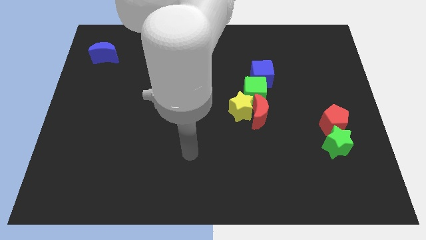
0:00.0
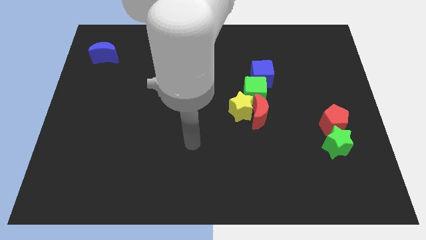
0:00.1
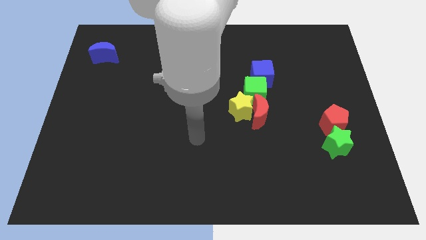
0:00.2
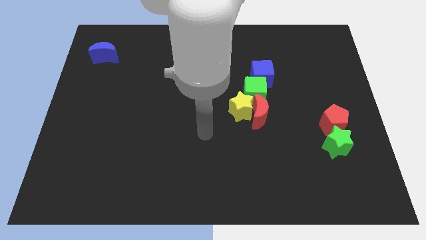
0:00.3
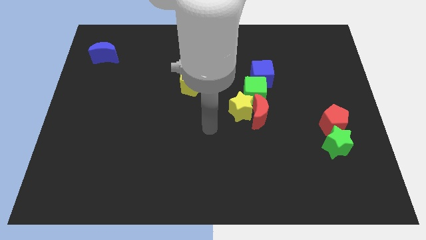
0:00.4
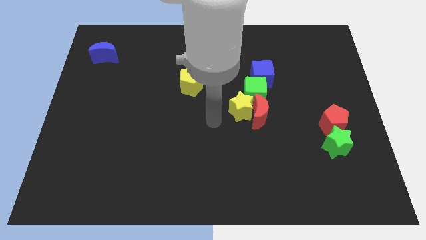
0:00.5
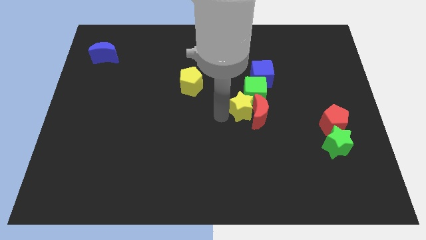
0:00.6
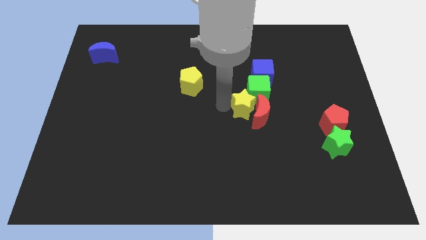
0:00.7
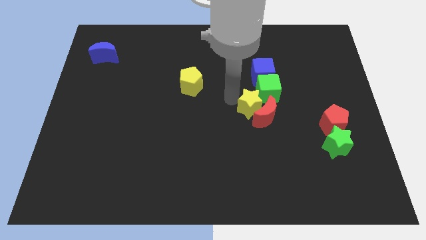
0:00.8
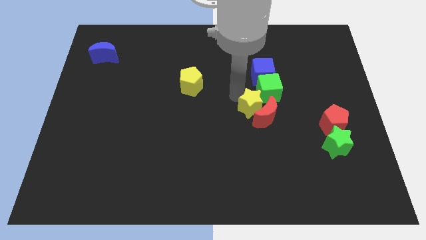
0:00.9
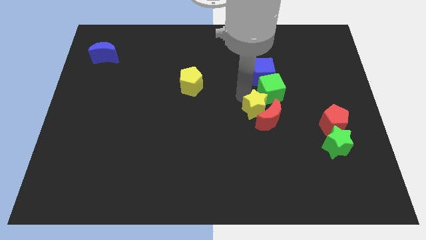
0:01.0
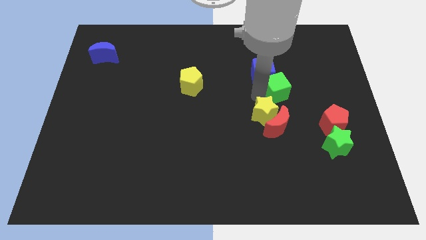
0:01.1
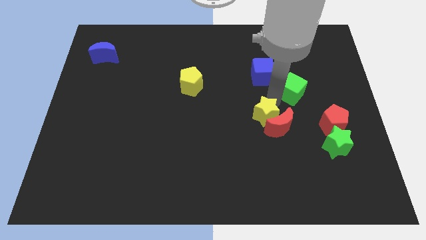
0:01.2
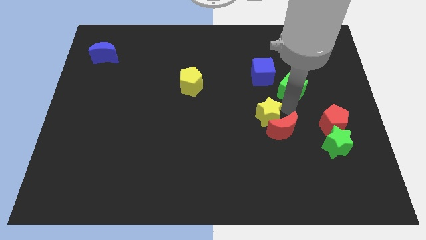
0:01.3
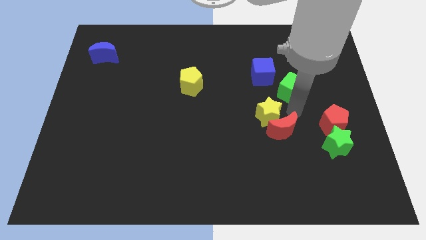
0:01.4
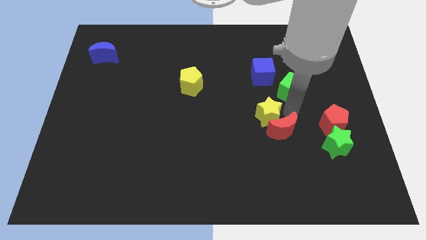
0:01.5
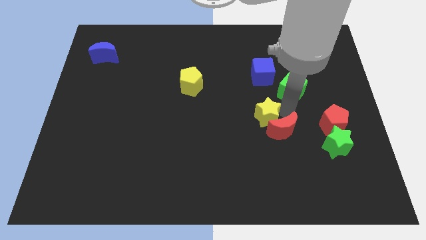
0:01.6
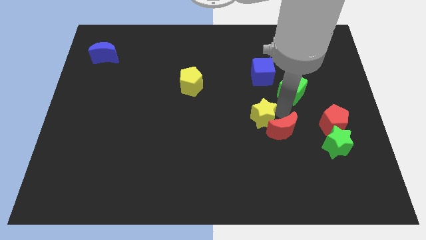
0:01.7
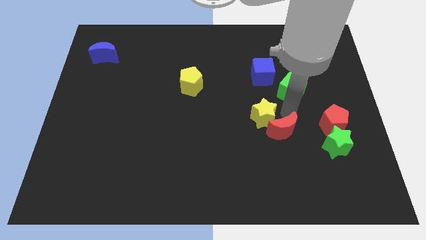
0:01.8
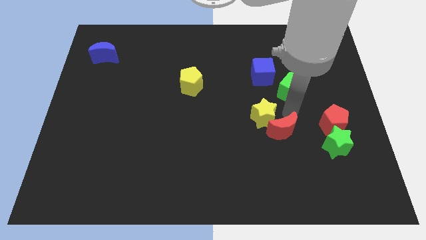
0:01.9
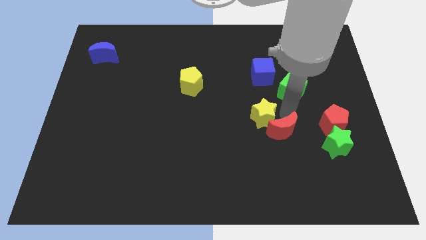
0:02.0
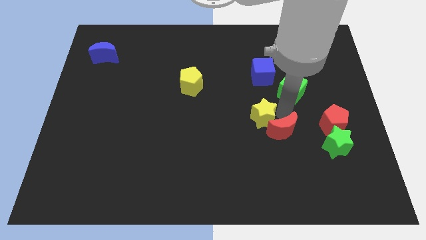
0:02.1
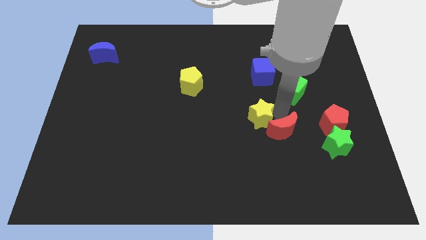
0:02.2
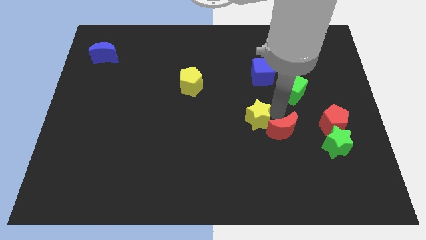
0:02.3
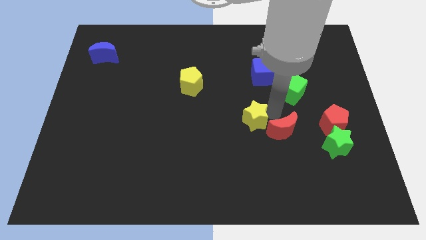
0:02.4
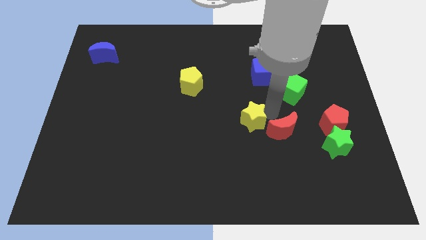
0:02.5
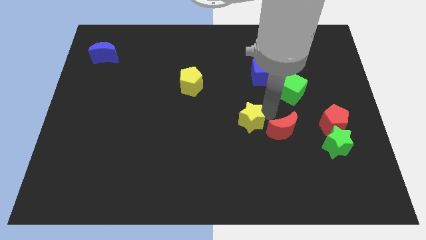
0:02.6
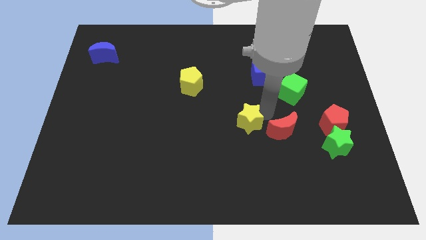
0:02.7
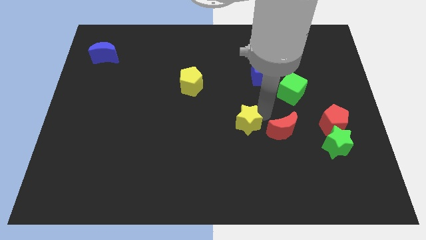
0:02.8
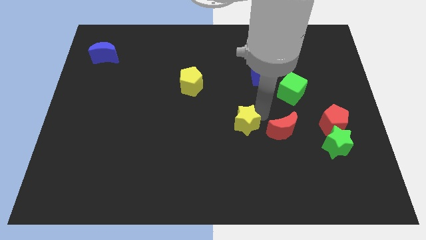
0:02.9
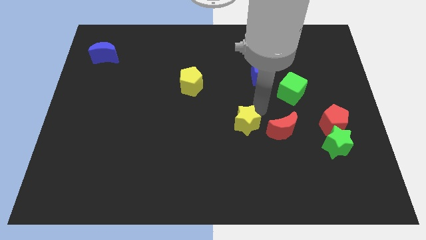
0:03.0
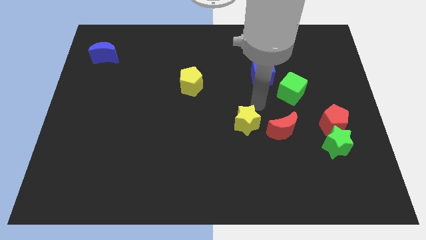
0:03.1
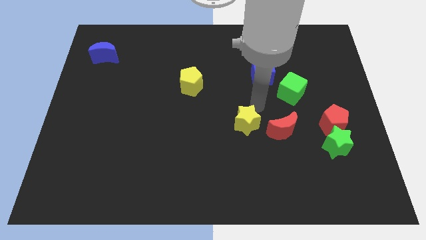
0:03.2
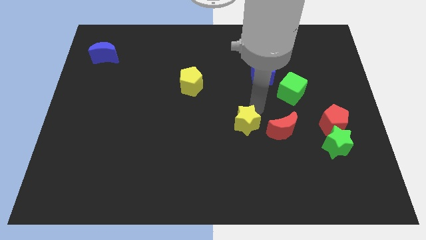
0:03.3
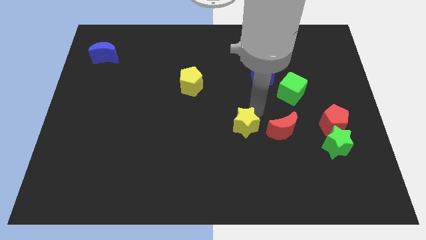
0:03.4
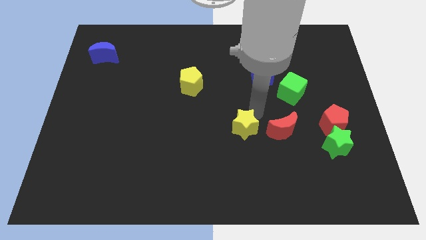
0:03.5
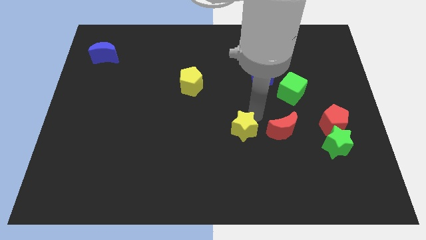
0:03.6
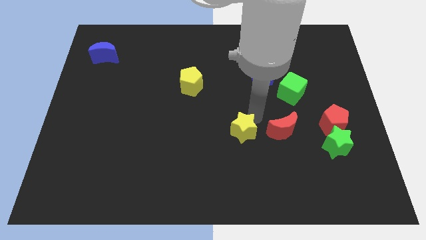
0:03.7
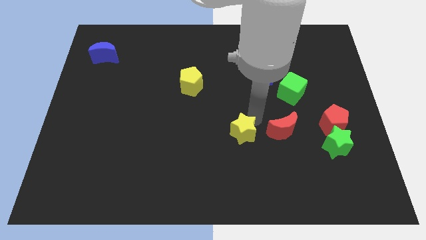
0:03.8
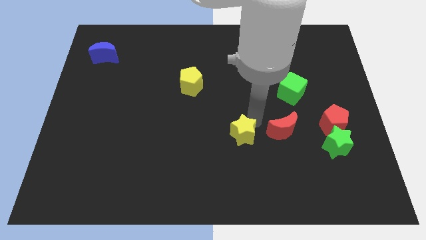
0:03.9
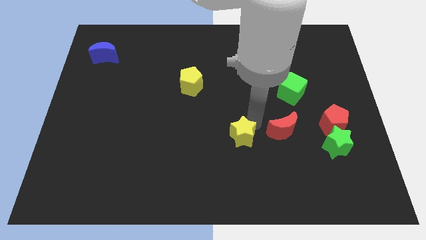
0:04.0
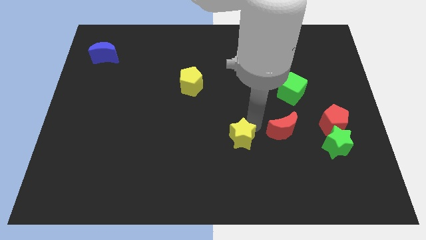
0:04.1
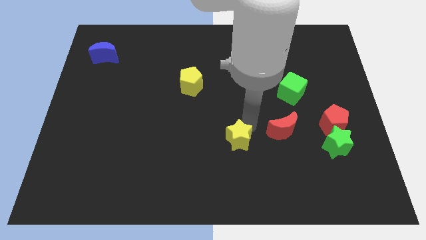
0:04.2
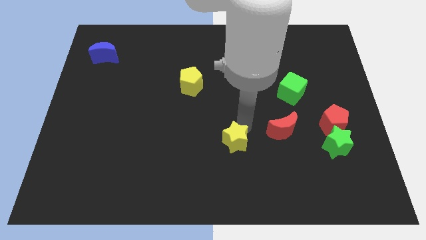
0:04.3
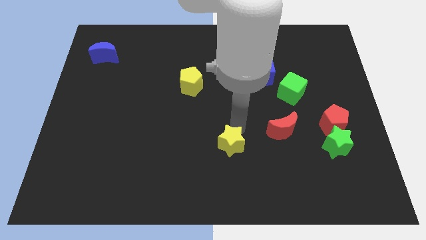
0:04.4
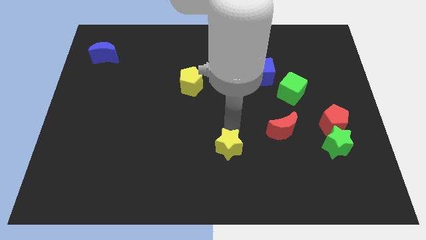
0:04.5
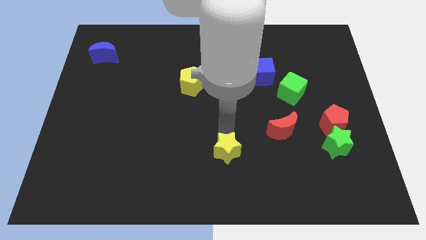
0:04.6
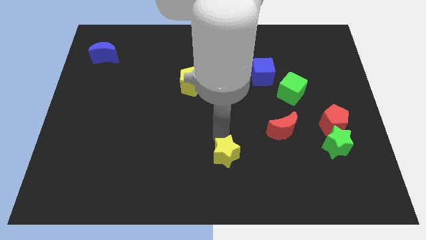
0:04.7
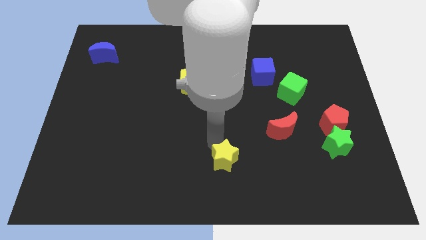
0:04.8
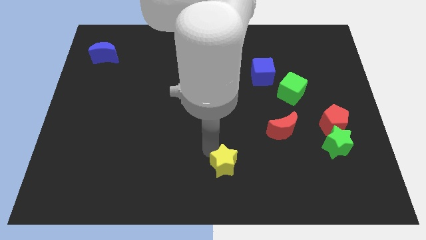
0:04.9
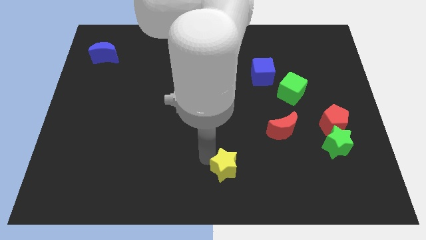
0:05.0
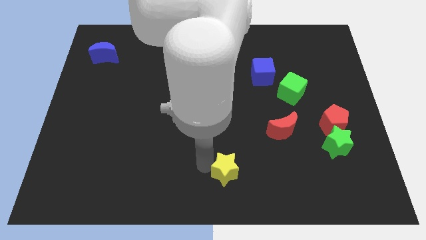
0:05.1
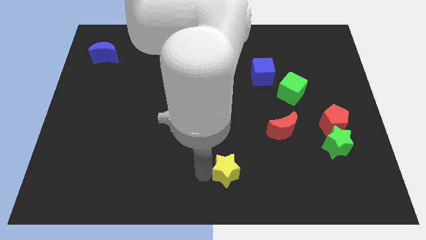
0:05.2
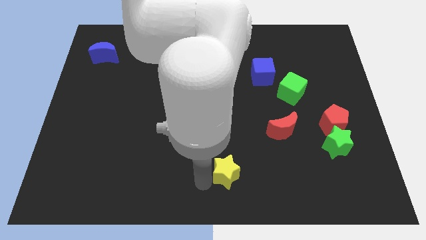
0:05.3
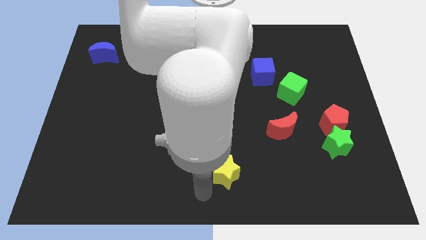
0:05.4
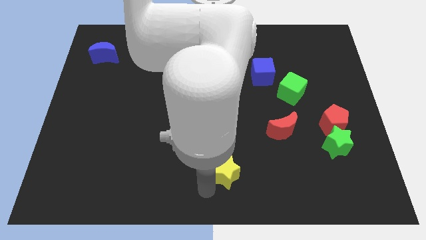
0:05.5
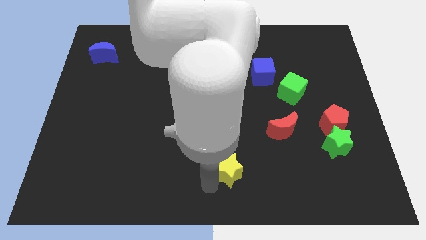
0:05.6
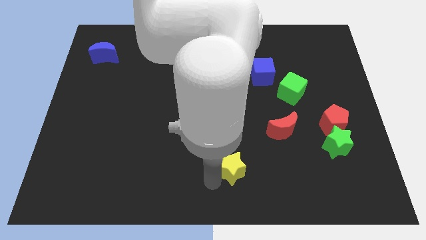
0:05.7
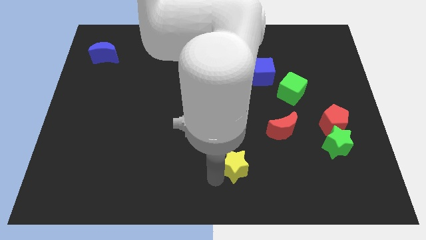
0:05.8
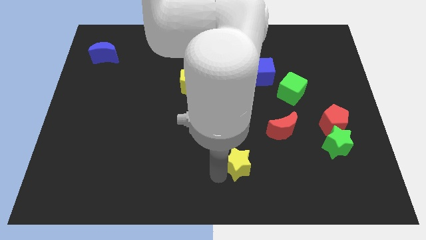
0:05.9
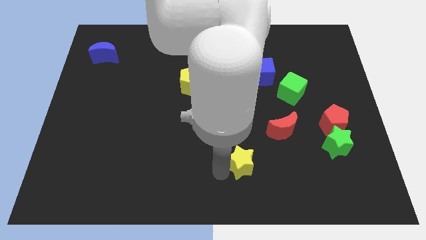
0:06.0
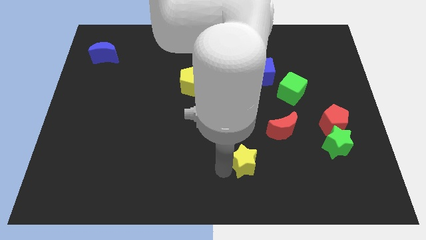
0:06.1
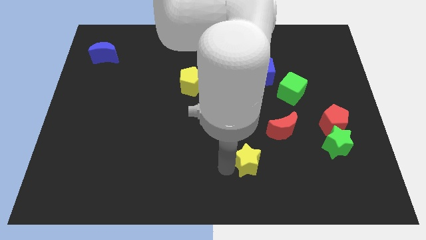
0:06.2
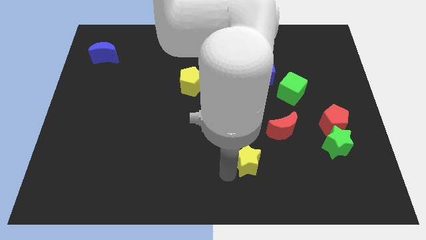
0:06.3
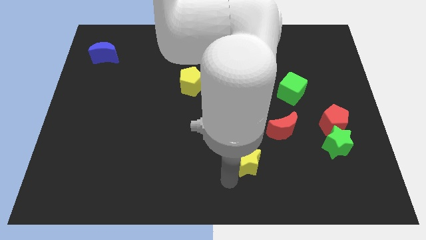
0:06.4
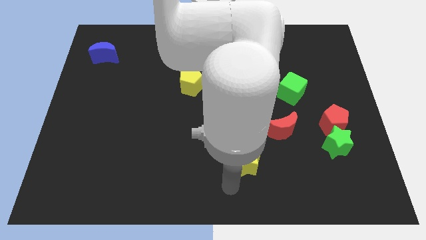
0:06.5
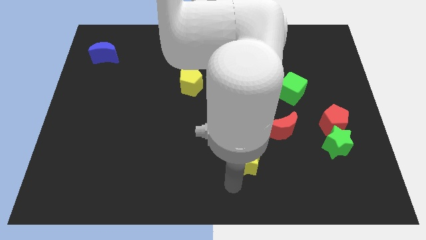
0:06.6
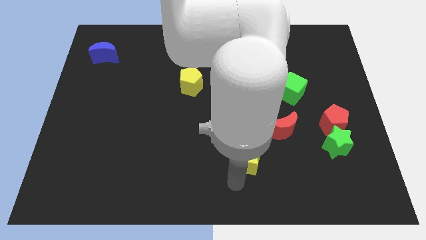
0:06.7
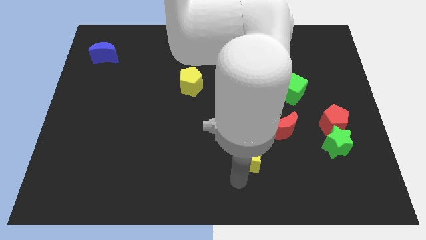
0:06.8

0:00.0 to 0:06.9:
slide the yellow star downwards and right a bit

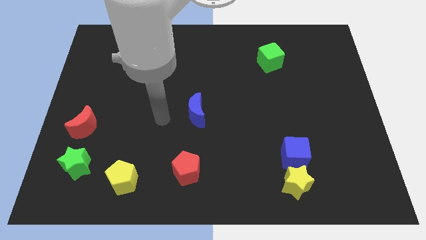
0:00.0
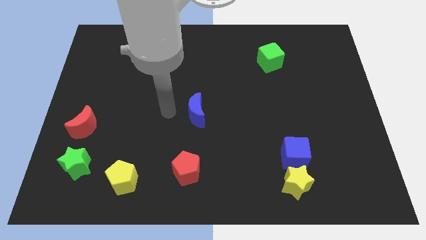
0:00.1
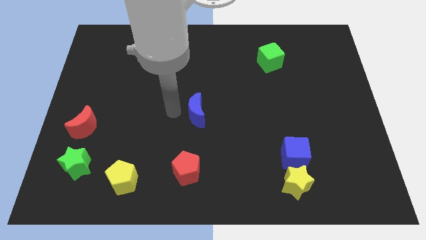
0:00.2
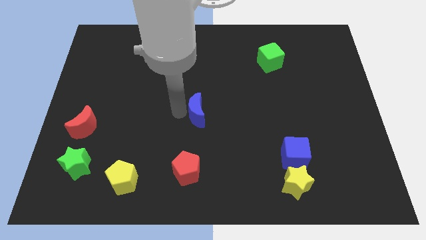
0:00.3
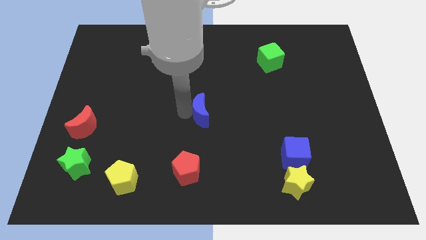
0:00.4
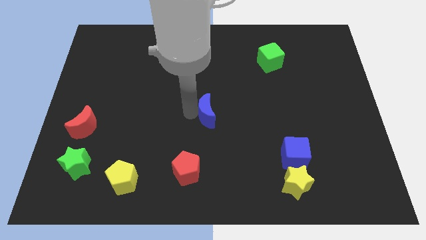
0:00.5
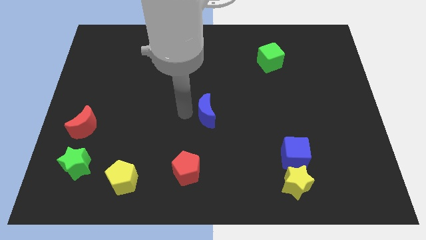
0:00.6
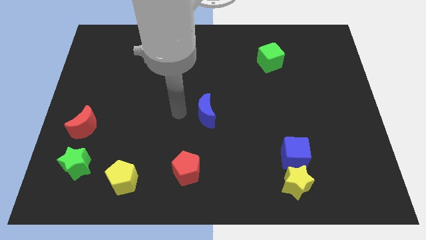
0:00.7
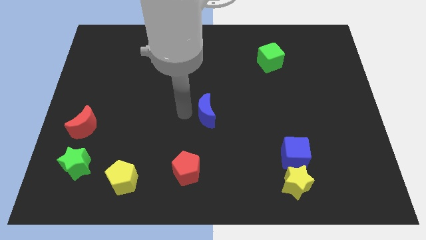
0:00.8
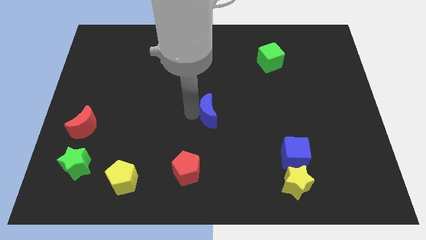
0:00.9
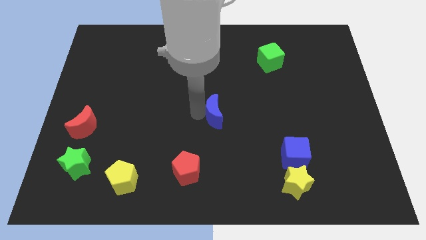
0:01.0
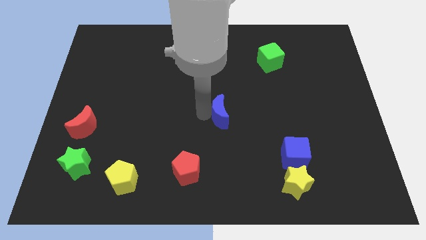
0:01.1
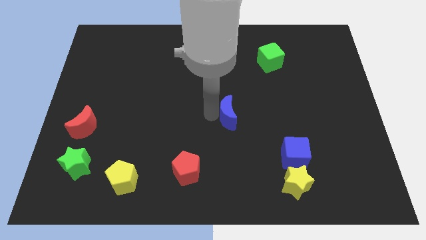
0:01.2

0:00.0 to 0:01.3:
slightly move the blue moon right
